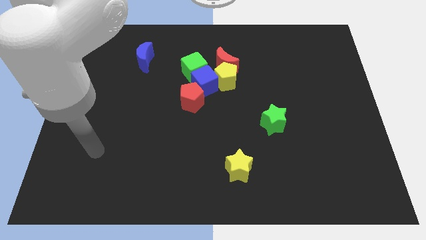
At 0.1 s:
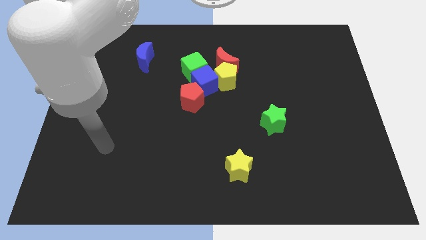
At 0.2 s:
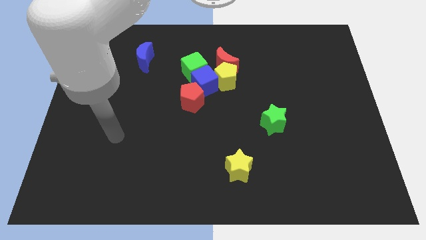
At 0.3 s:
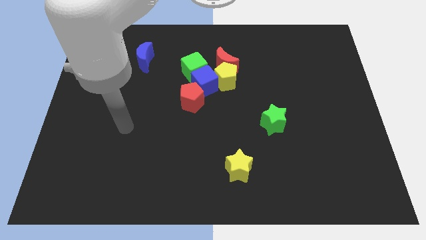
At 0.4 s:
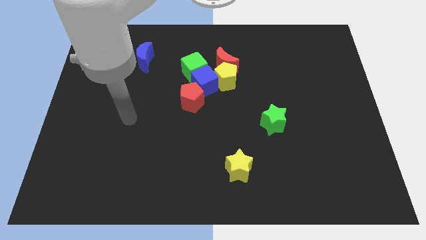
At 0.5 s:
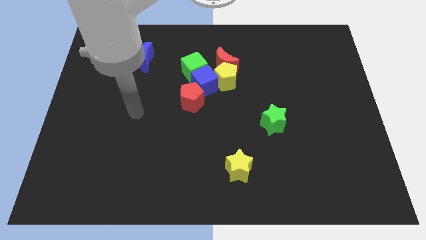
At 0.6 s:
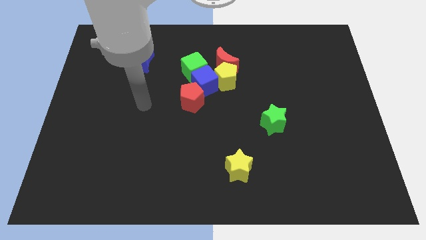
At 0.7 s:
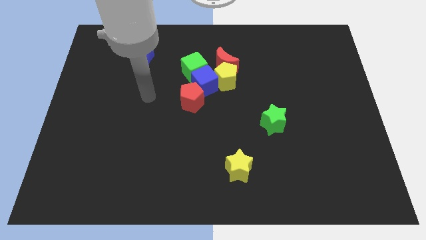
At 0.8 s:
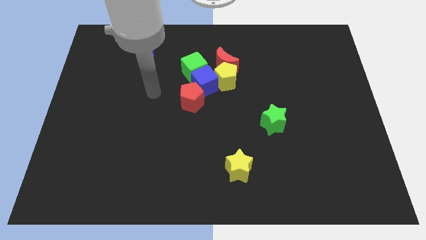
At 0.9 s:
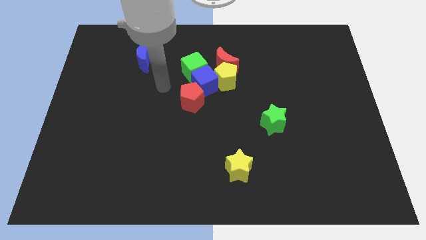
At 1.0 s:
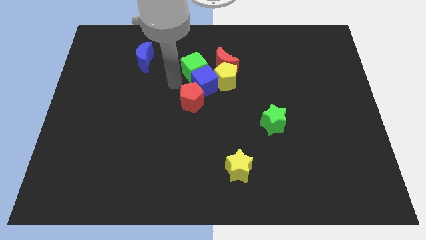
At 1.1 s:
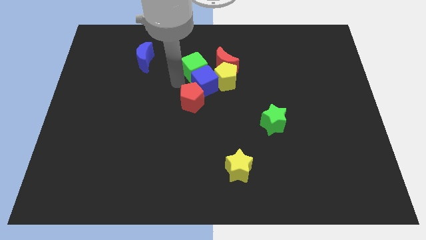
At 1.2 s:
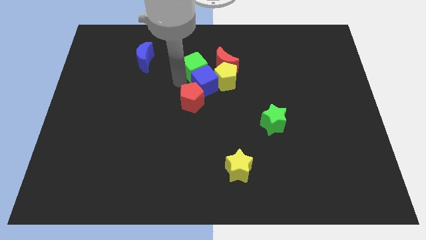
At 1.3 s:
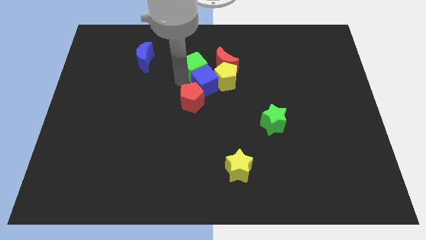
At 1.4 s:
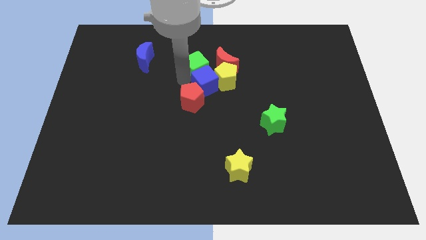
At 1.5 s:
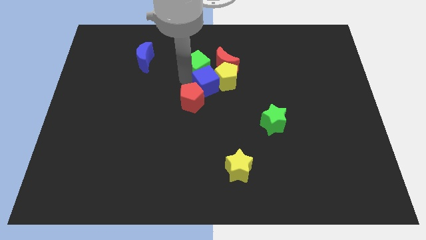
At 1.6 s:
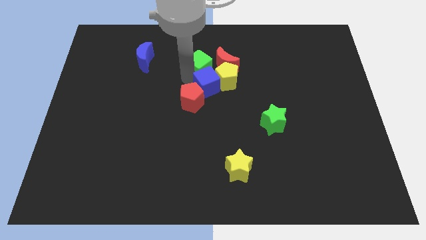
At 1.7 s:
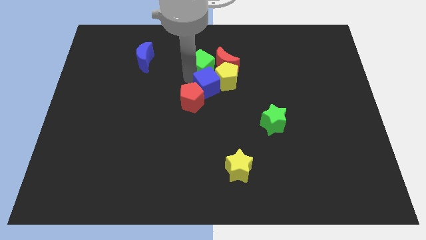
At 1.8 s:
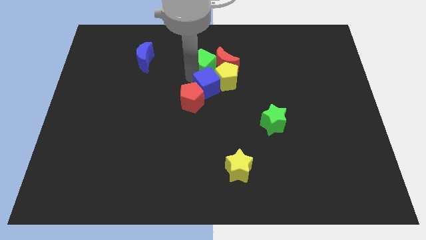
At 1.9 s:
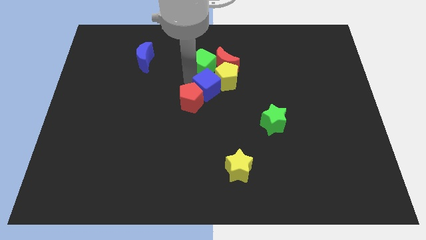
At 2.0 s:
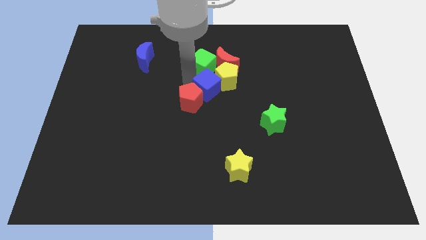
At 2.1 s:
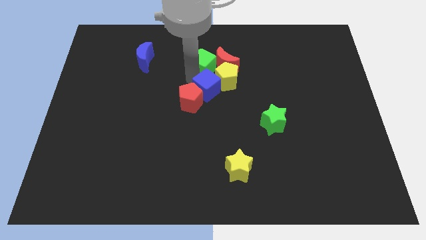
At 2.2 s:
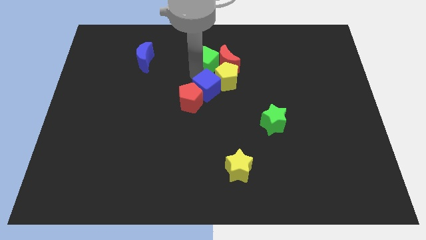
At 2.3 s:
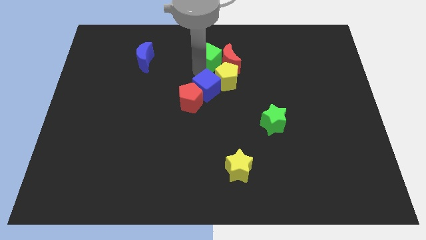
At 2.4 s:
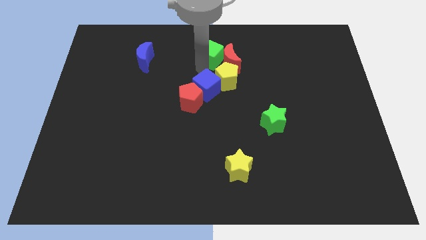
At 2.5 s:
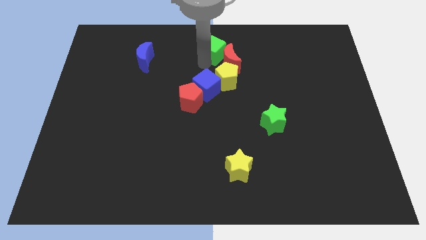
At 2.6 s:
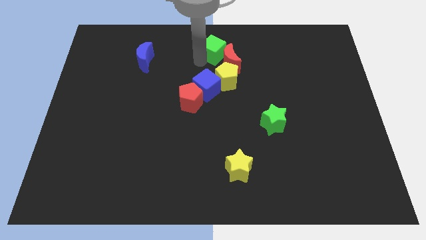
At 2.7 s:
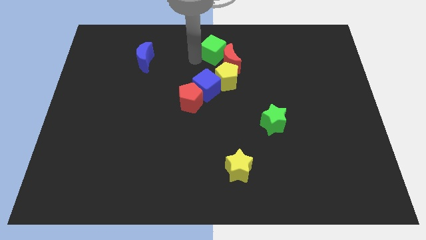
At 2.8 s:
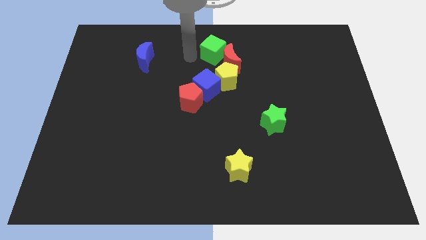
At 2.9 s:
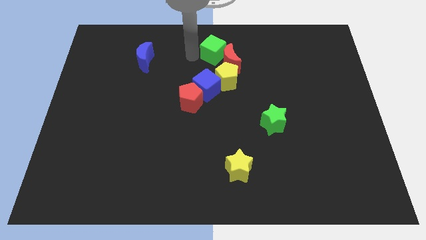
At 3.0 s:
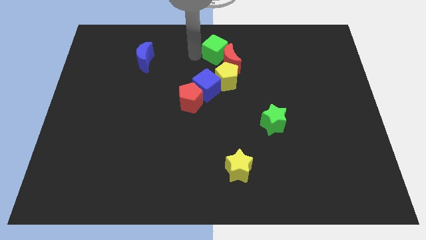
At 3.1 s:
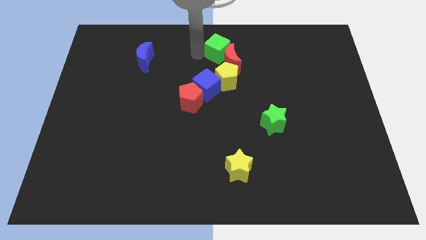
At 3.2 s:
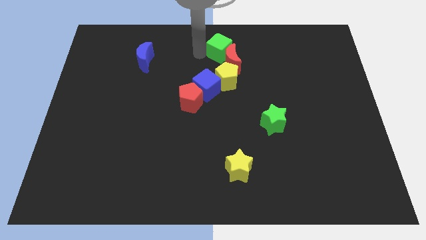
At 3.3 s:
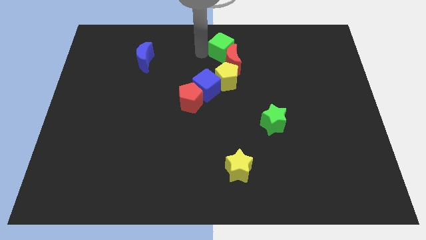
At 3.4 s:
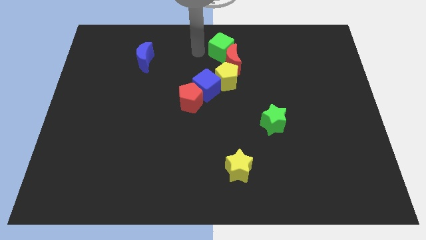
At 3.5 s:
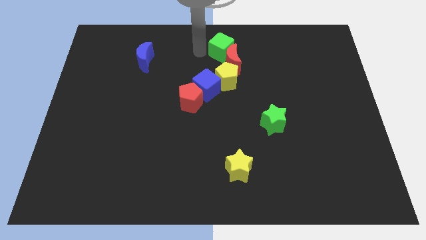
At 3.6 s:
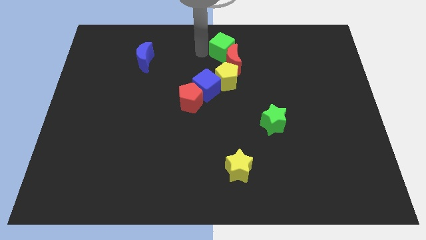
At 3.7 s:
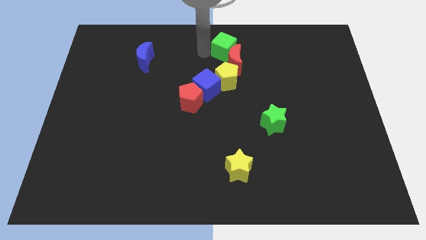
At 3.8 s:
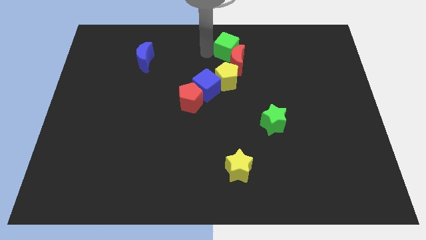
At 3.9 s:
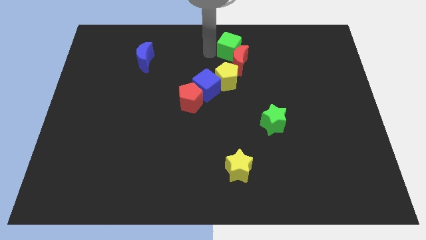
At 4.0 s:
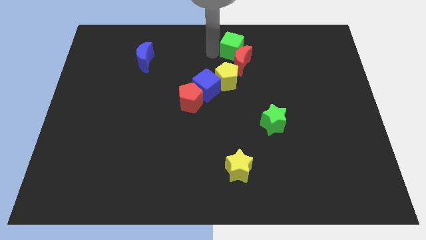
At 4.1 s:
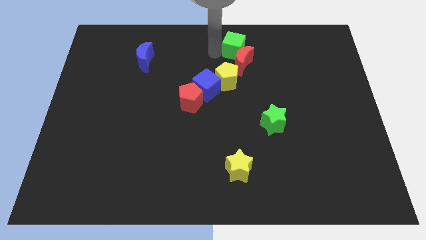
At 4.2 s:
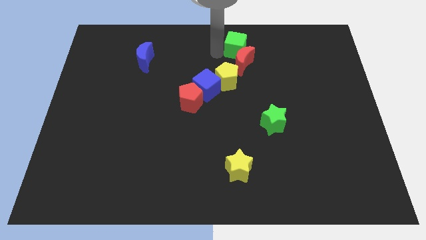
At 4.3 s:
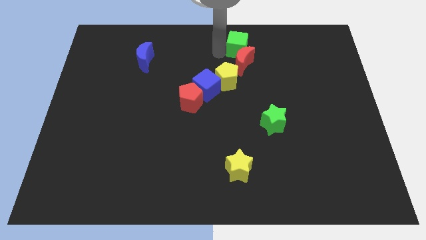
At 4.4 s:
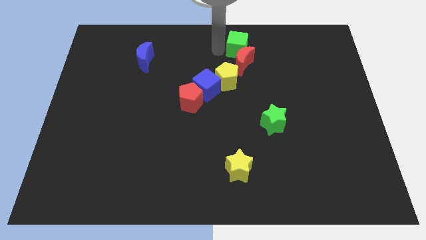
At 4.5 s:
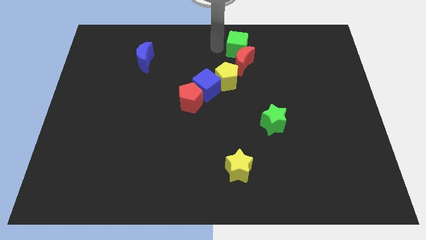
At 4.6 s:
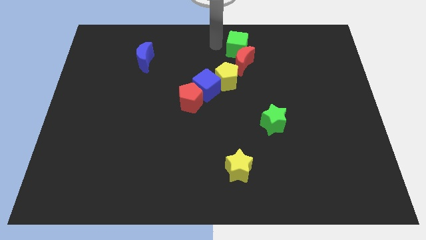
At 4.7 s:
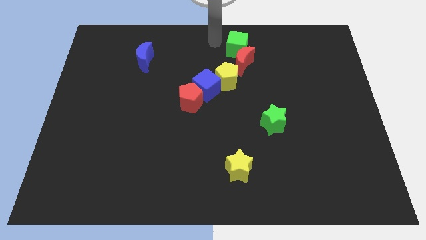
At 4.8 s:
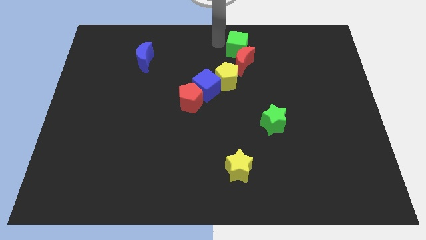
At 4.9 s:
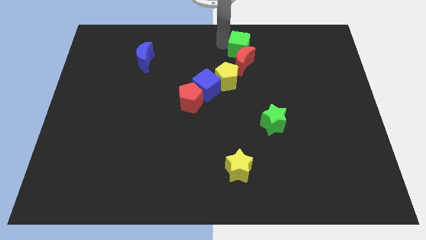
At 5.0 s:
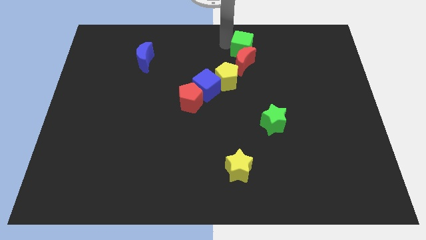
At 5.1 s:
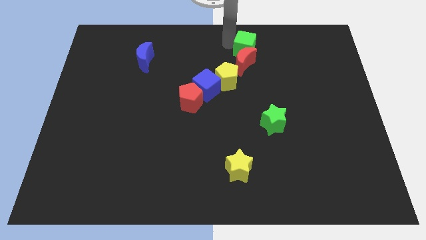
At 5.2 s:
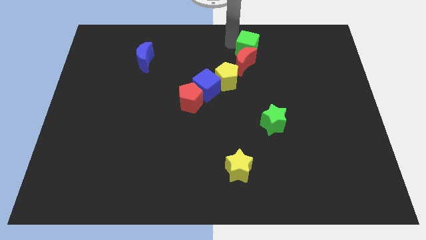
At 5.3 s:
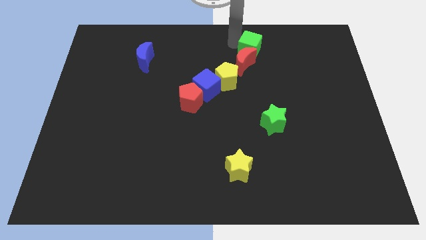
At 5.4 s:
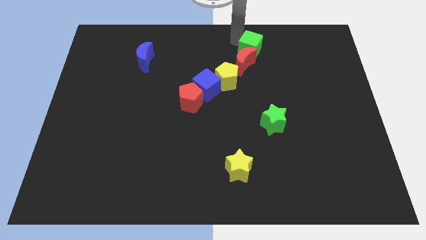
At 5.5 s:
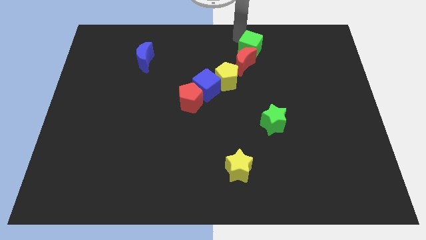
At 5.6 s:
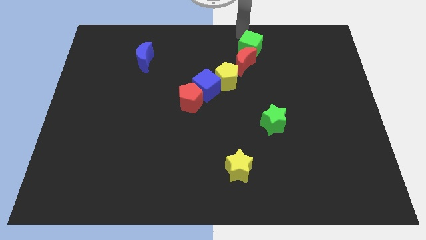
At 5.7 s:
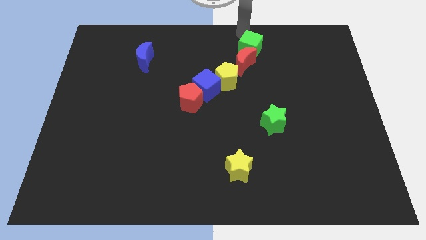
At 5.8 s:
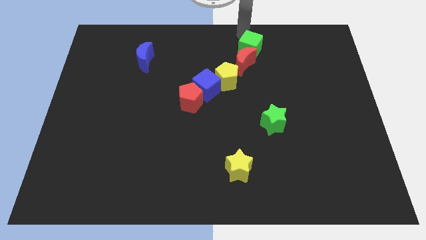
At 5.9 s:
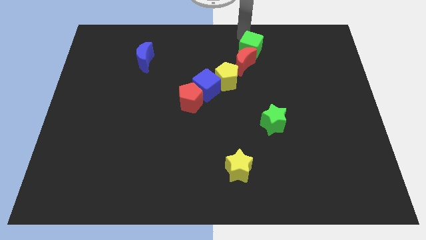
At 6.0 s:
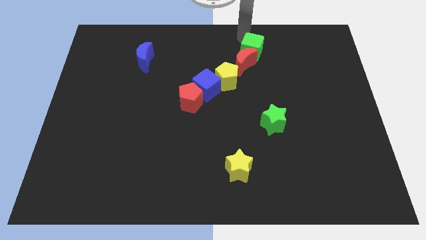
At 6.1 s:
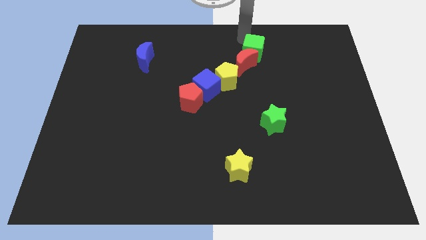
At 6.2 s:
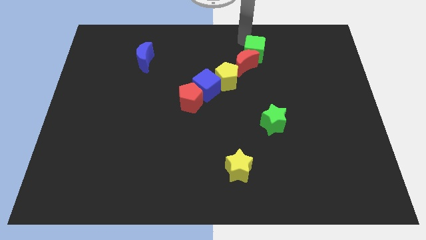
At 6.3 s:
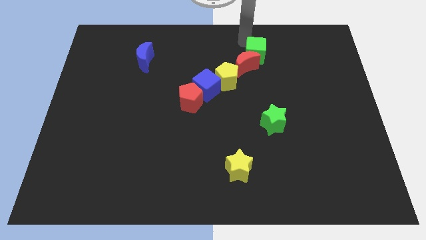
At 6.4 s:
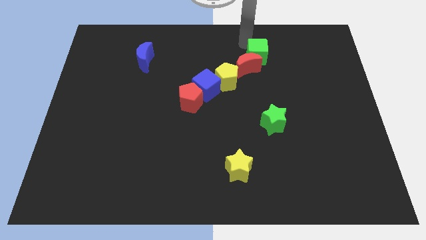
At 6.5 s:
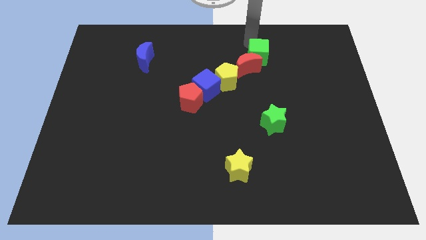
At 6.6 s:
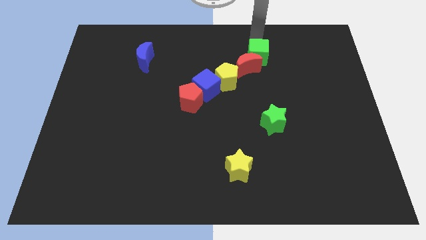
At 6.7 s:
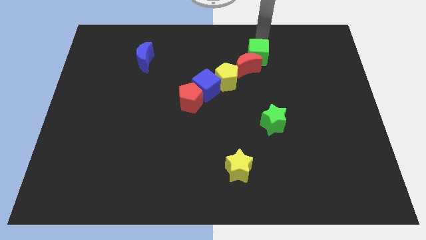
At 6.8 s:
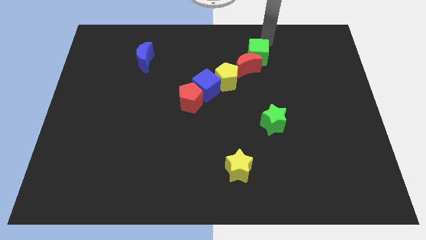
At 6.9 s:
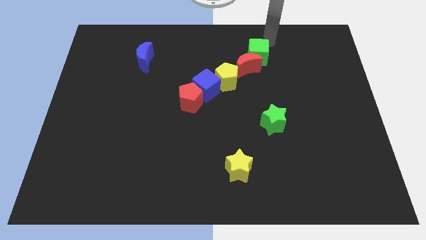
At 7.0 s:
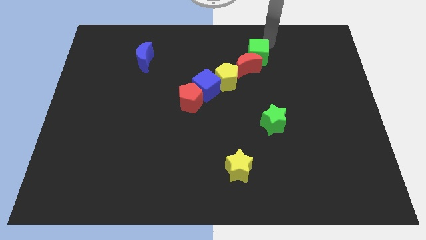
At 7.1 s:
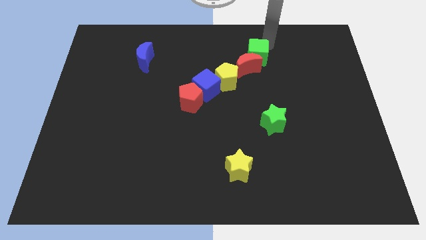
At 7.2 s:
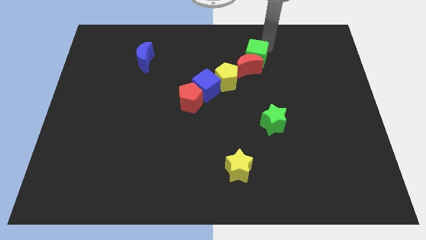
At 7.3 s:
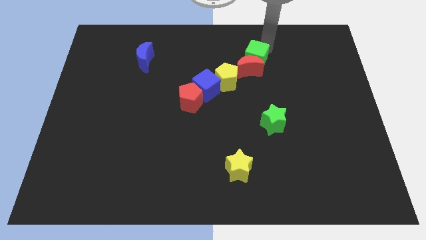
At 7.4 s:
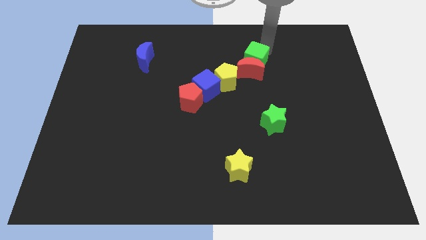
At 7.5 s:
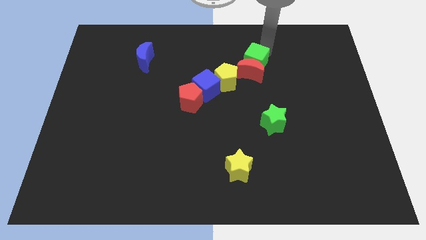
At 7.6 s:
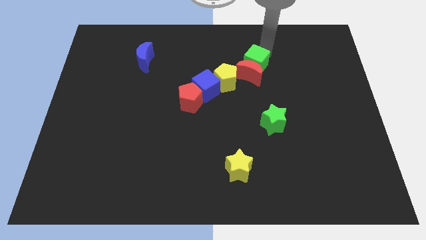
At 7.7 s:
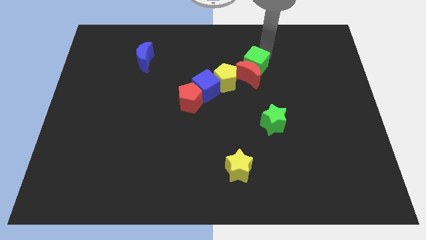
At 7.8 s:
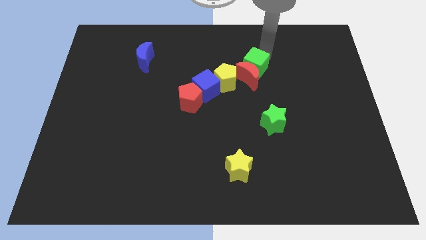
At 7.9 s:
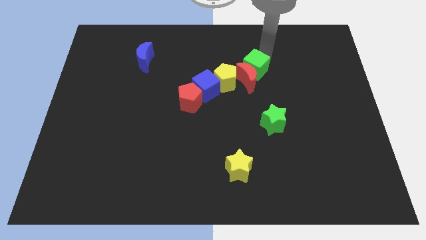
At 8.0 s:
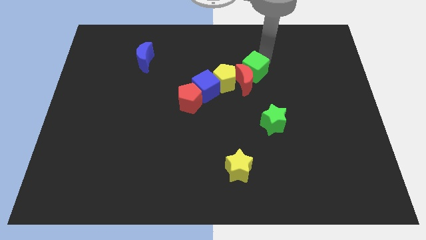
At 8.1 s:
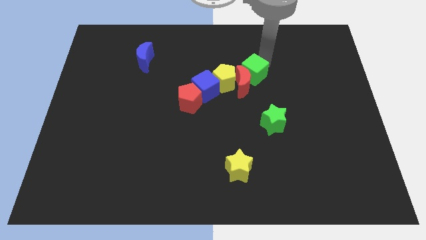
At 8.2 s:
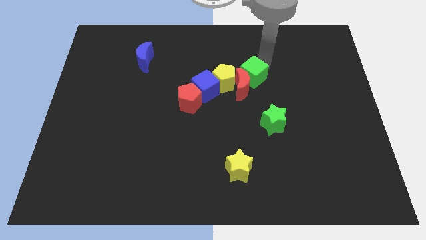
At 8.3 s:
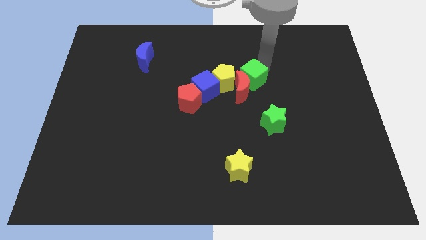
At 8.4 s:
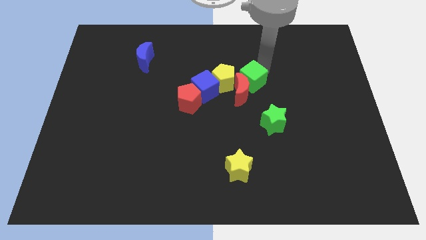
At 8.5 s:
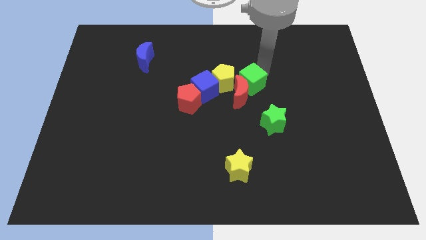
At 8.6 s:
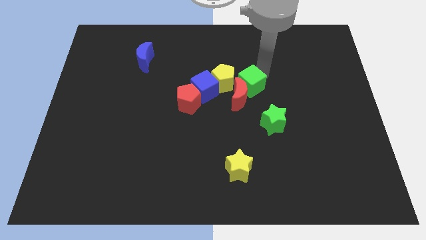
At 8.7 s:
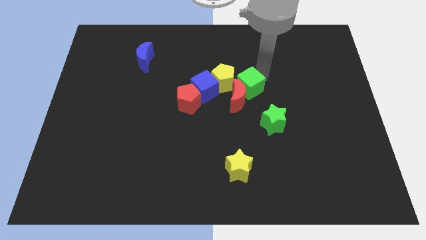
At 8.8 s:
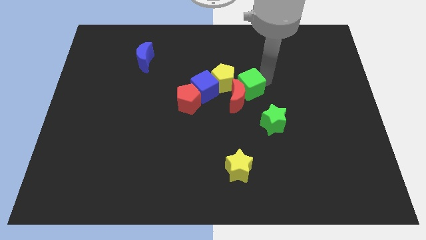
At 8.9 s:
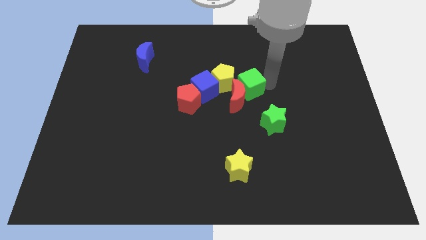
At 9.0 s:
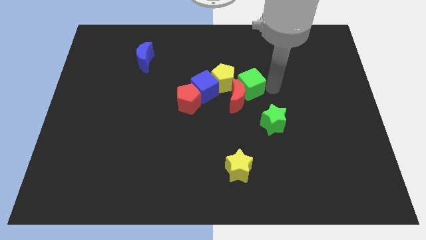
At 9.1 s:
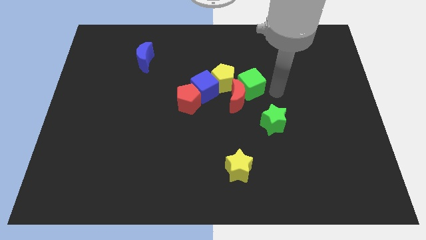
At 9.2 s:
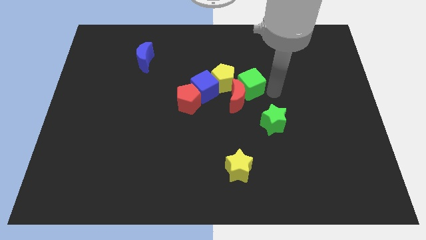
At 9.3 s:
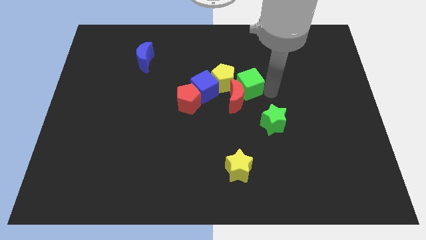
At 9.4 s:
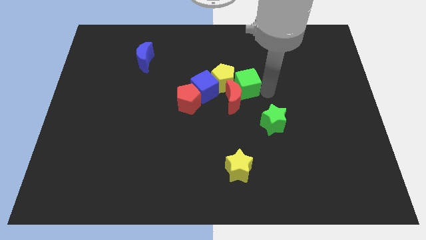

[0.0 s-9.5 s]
slide the green cube towards the yellow pentagon
